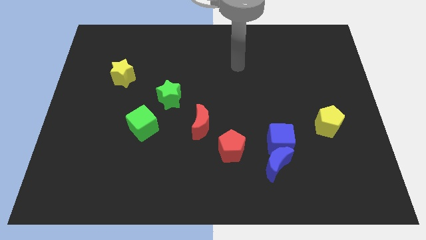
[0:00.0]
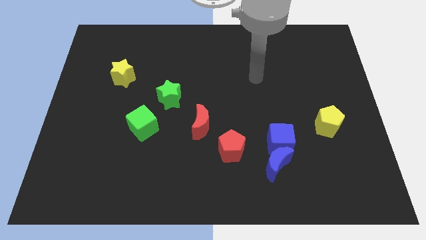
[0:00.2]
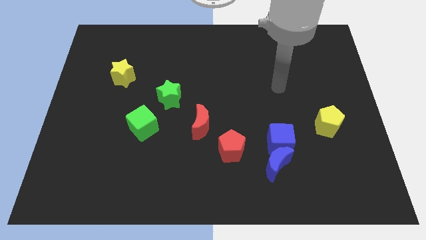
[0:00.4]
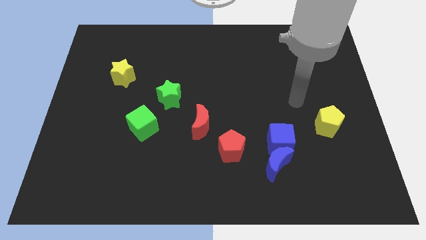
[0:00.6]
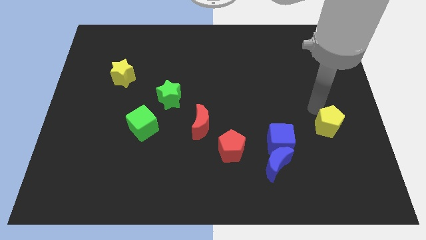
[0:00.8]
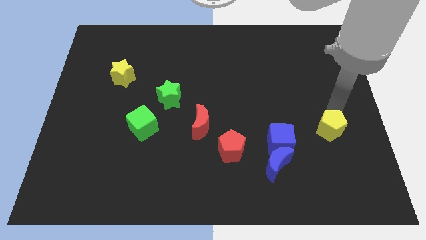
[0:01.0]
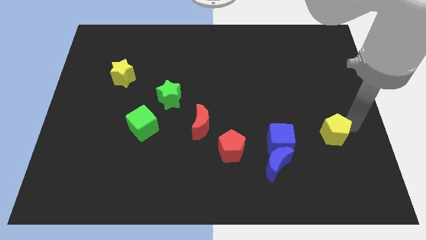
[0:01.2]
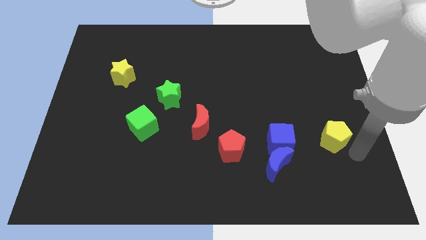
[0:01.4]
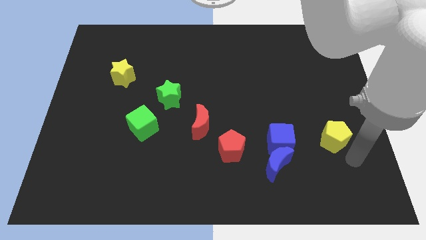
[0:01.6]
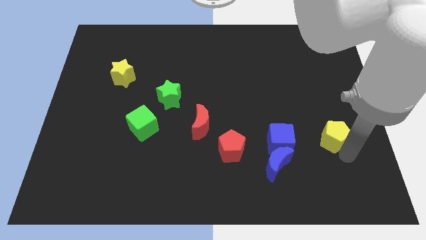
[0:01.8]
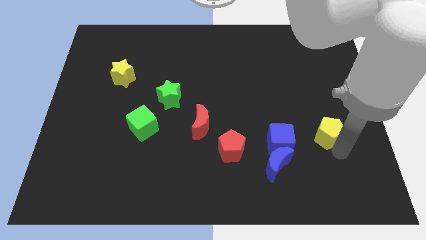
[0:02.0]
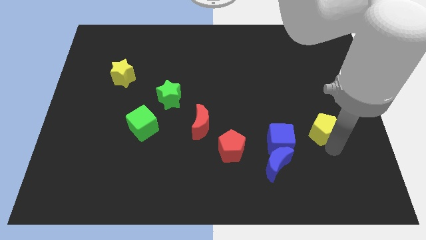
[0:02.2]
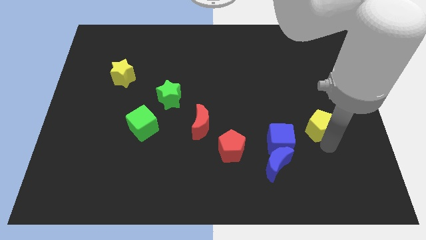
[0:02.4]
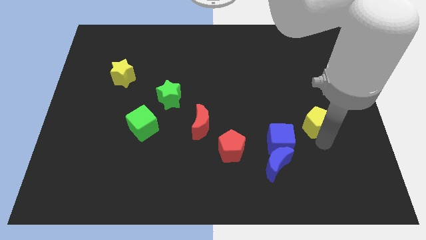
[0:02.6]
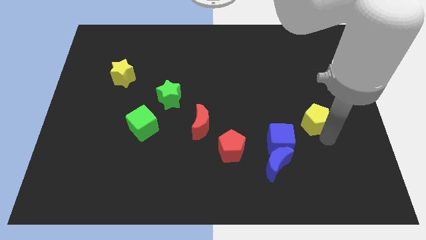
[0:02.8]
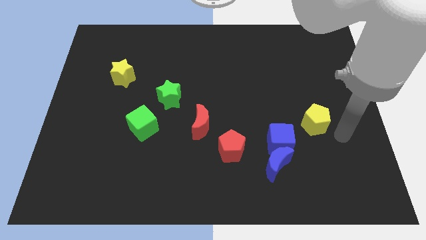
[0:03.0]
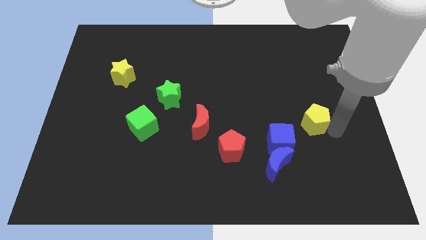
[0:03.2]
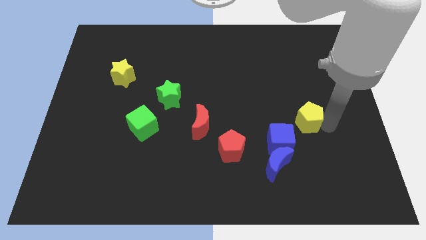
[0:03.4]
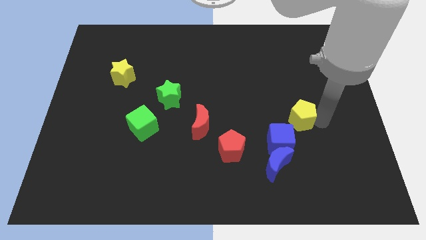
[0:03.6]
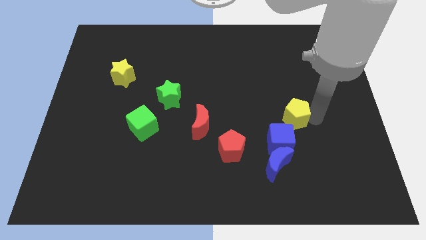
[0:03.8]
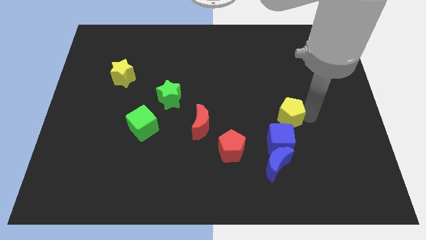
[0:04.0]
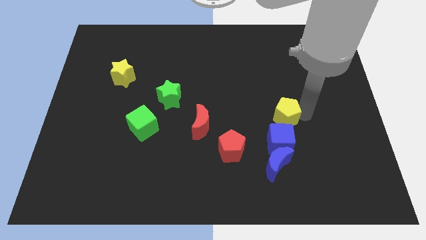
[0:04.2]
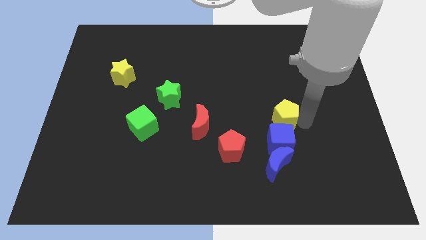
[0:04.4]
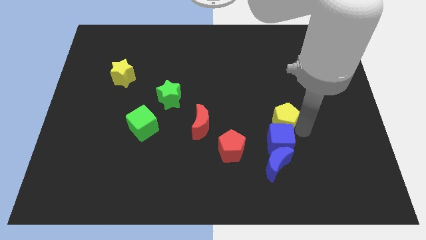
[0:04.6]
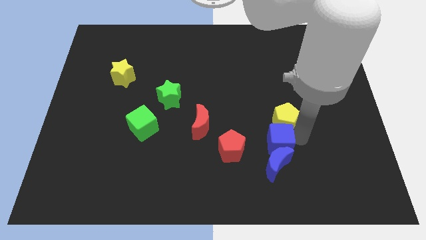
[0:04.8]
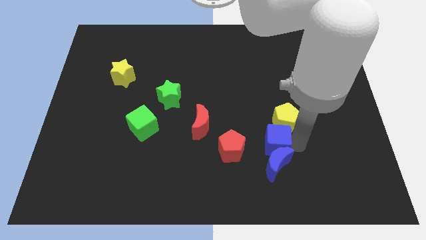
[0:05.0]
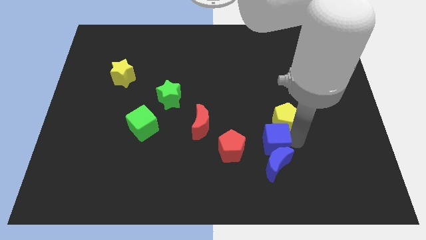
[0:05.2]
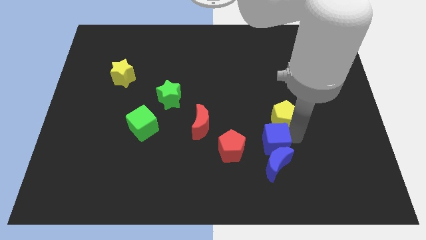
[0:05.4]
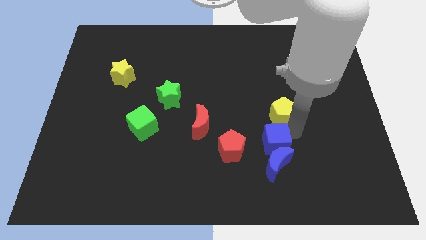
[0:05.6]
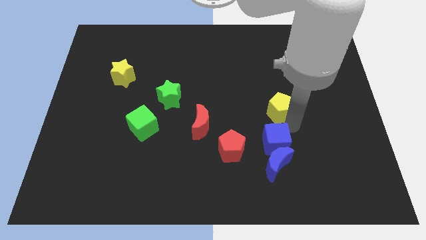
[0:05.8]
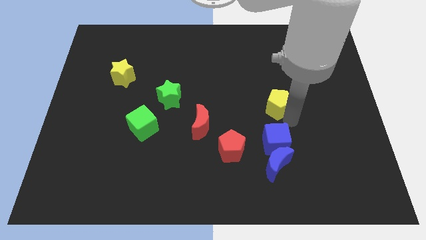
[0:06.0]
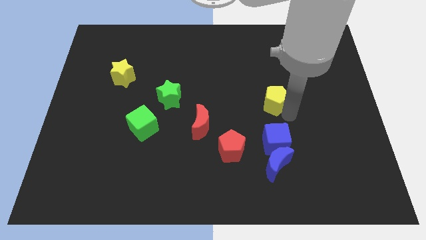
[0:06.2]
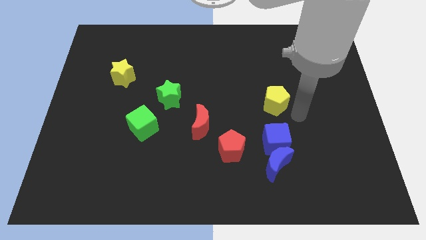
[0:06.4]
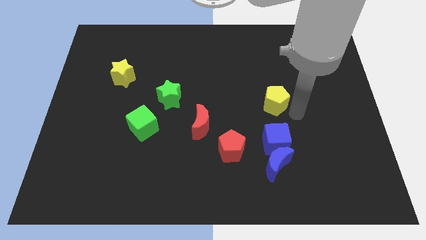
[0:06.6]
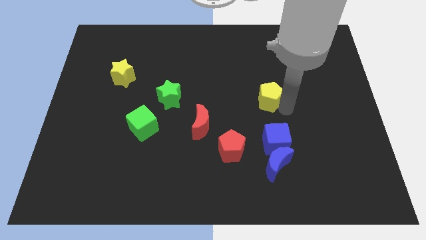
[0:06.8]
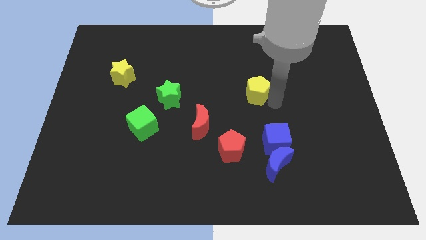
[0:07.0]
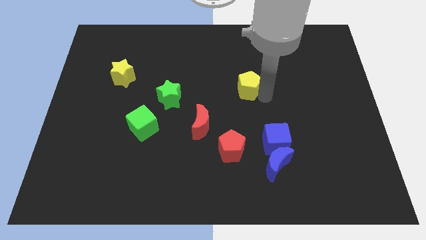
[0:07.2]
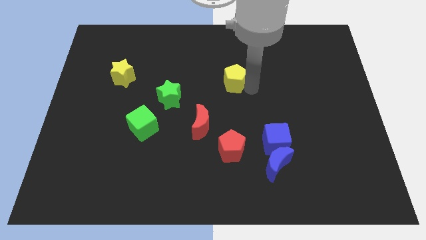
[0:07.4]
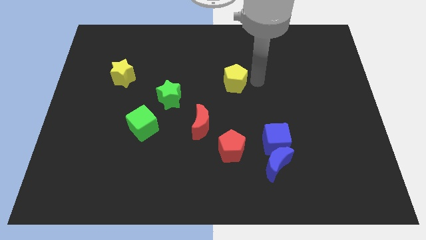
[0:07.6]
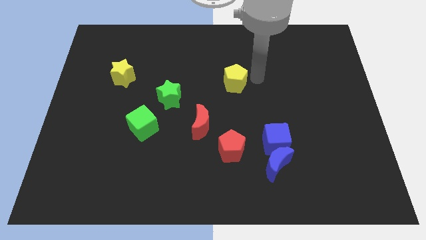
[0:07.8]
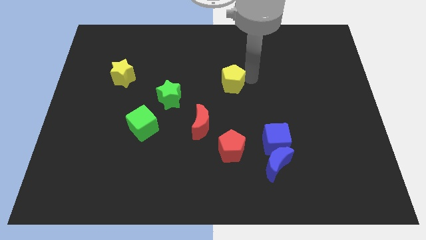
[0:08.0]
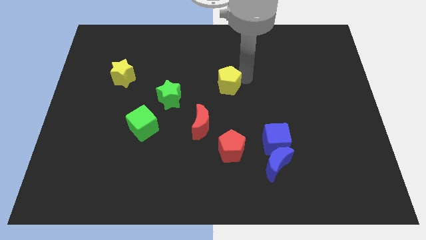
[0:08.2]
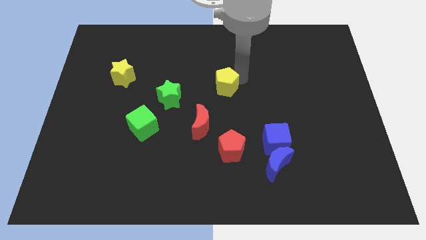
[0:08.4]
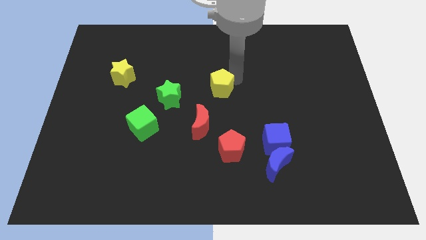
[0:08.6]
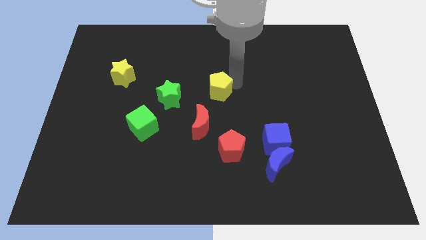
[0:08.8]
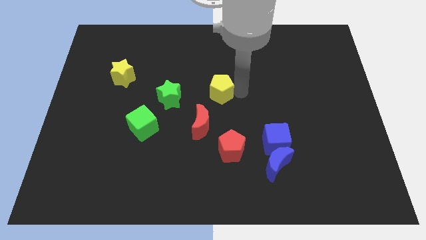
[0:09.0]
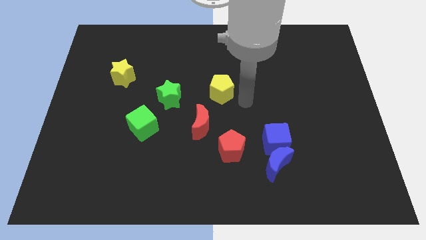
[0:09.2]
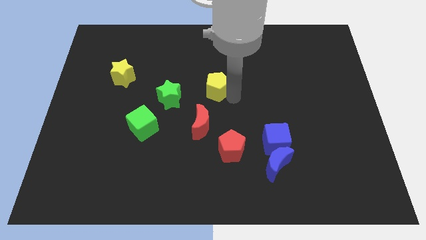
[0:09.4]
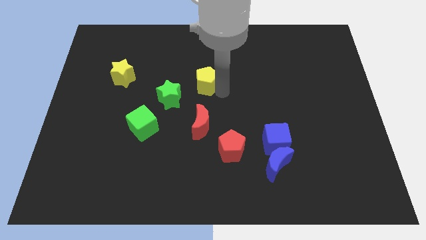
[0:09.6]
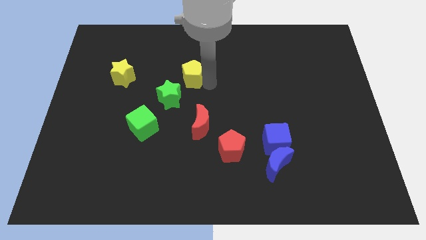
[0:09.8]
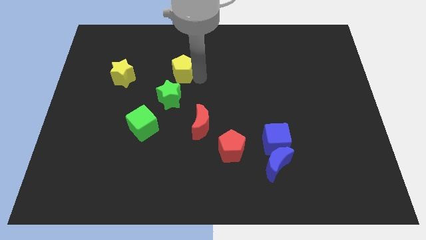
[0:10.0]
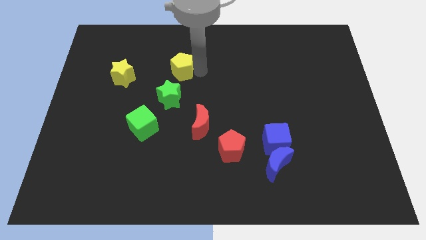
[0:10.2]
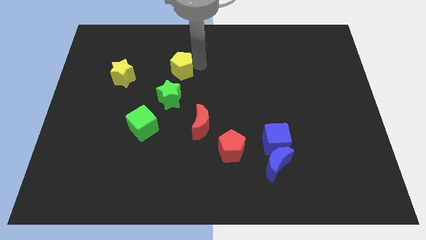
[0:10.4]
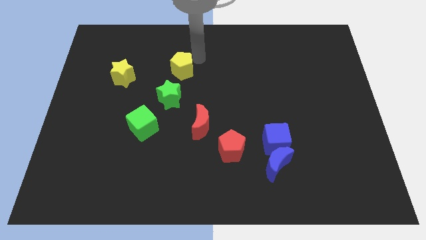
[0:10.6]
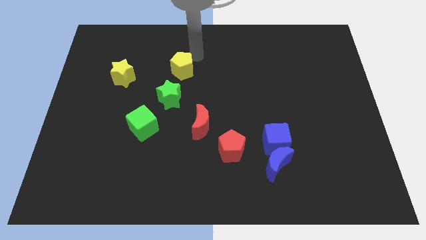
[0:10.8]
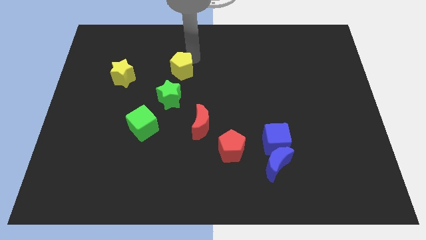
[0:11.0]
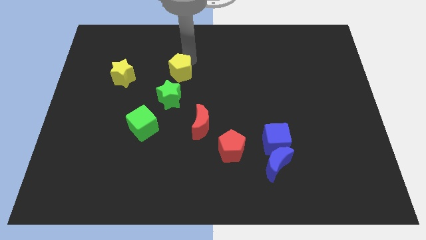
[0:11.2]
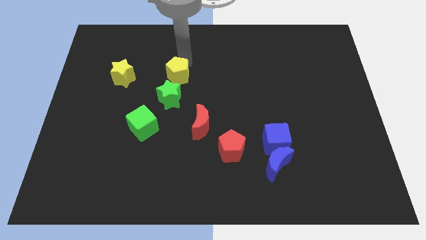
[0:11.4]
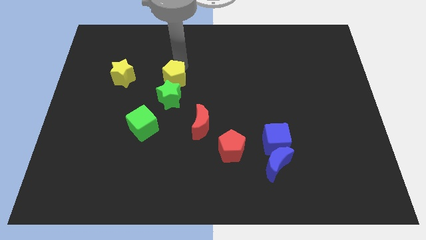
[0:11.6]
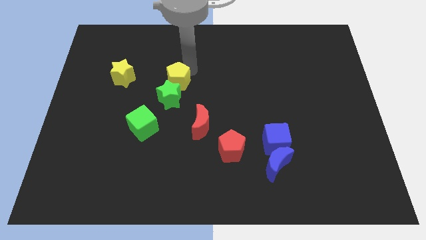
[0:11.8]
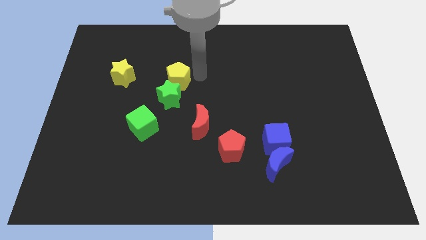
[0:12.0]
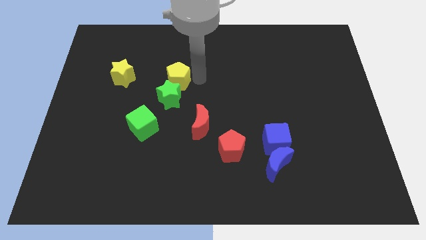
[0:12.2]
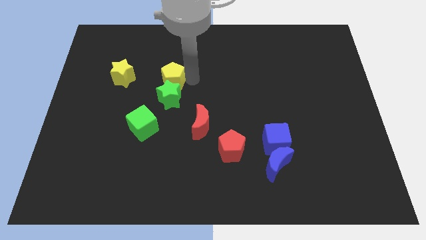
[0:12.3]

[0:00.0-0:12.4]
put the yellow pentagon to the top left side of the green star

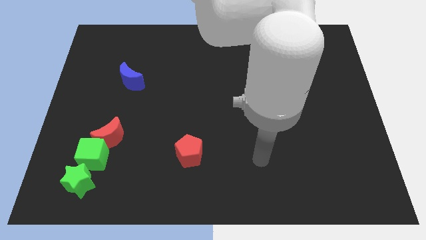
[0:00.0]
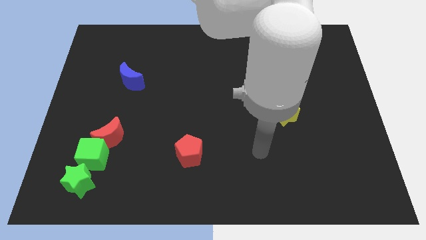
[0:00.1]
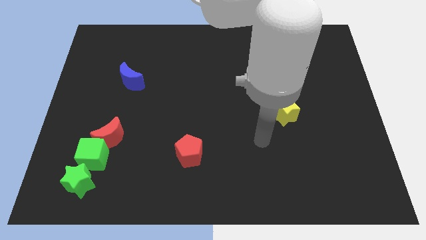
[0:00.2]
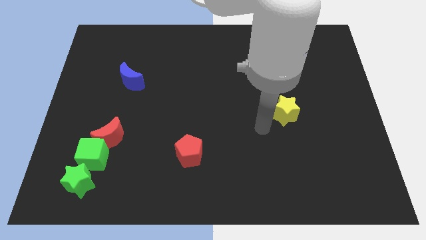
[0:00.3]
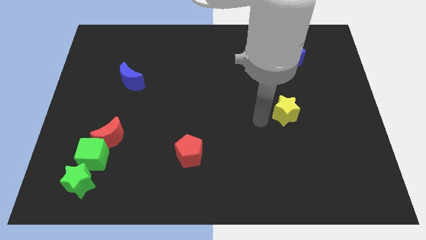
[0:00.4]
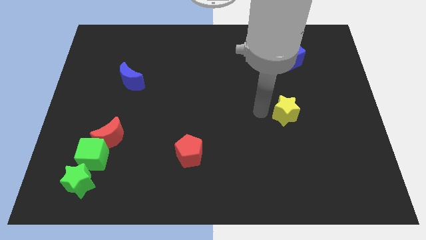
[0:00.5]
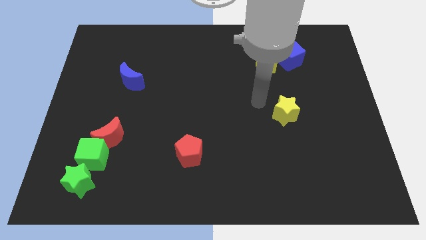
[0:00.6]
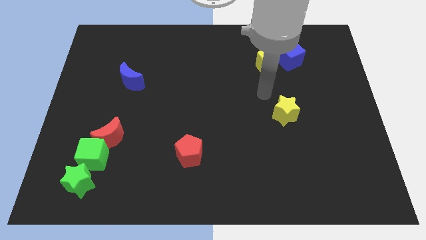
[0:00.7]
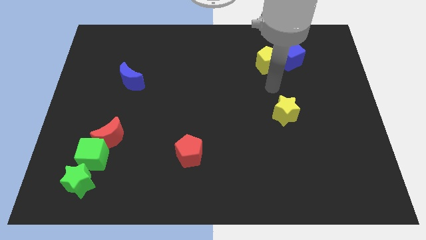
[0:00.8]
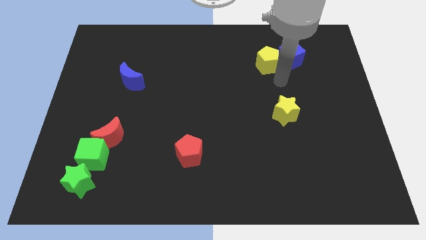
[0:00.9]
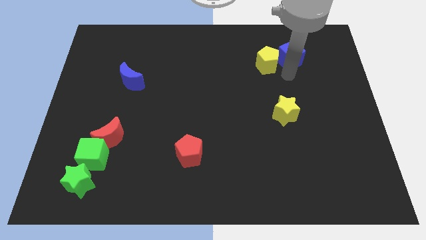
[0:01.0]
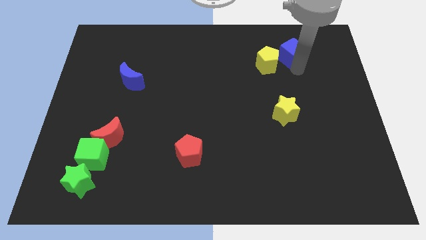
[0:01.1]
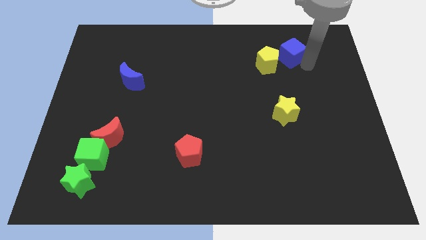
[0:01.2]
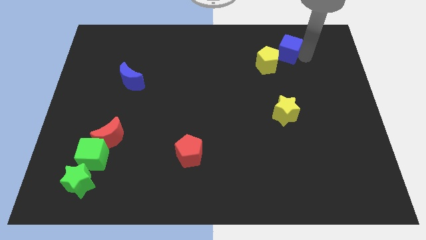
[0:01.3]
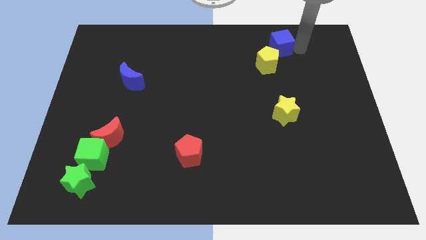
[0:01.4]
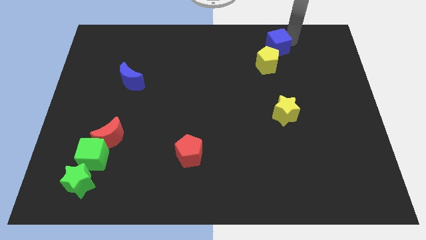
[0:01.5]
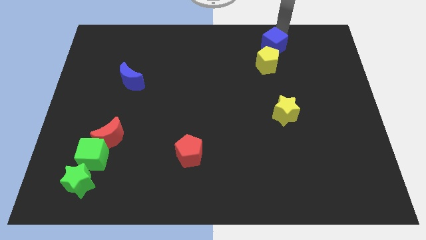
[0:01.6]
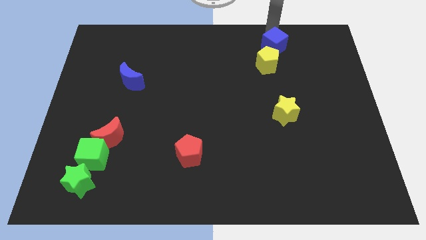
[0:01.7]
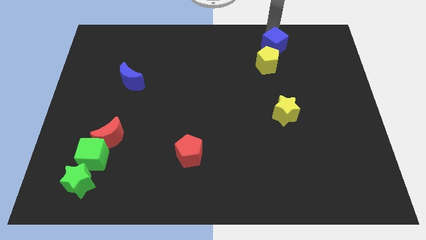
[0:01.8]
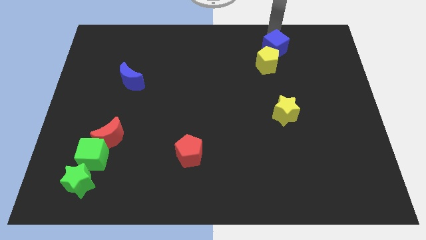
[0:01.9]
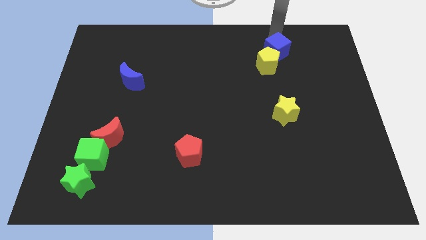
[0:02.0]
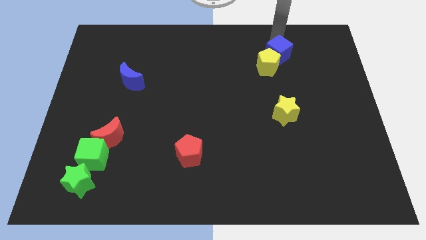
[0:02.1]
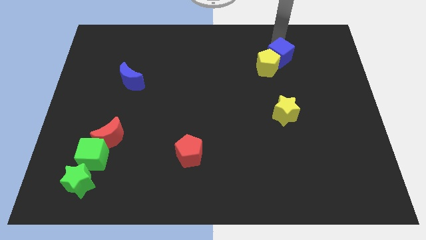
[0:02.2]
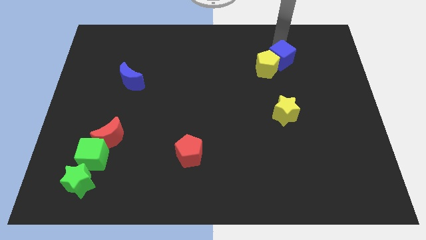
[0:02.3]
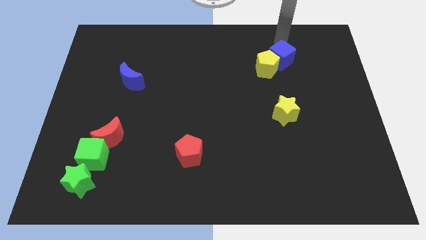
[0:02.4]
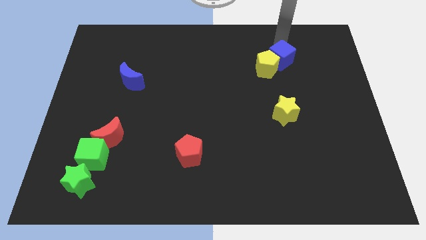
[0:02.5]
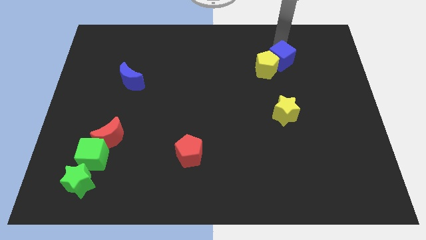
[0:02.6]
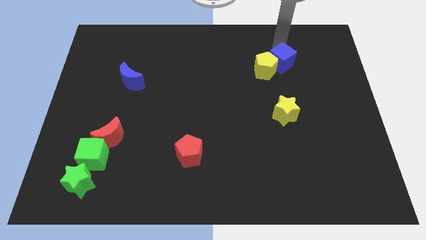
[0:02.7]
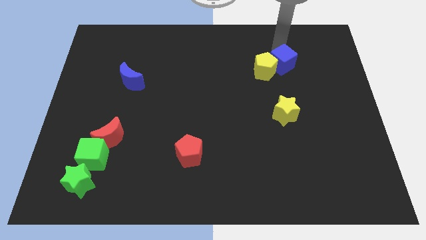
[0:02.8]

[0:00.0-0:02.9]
slide the blue cube to the top of the yellow star
